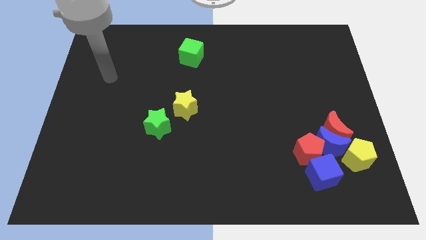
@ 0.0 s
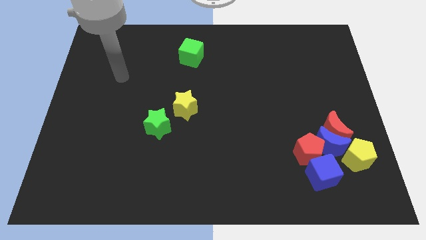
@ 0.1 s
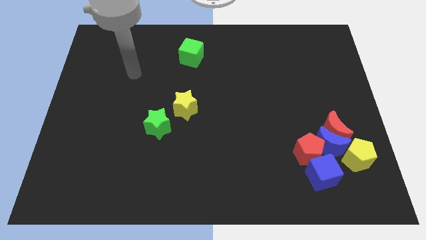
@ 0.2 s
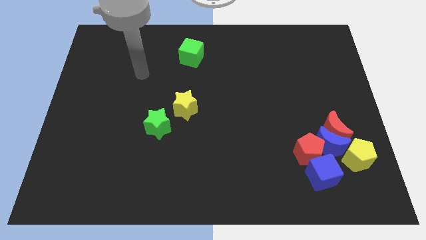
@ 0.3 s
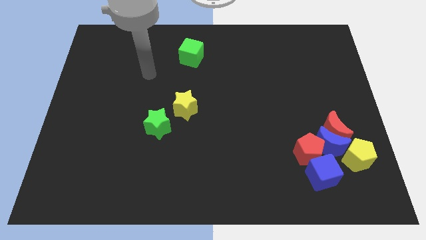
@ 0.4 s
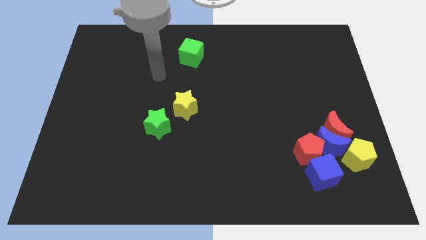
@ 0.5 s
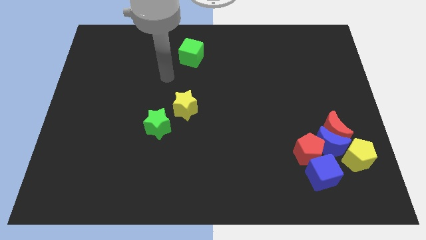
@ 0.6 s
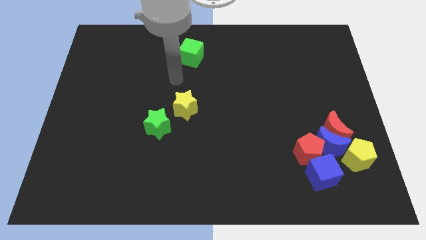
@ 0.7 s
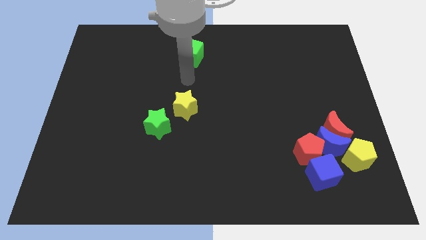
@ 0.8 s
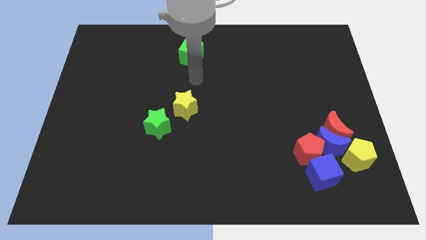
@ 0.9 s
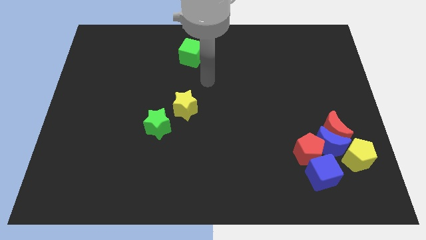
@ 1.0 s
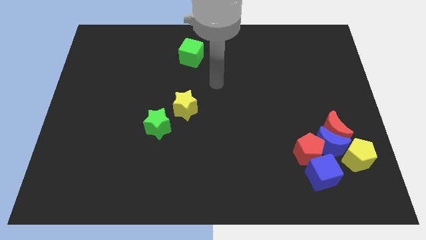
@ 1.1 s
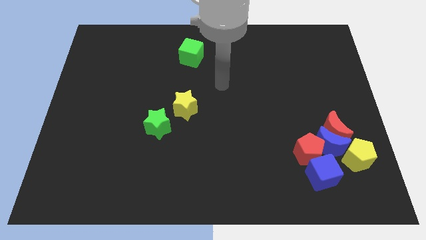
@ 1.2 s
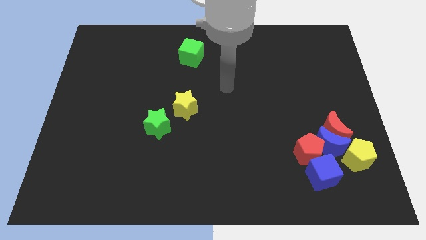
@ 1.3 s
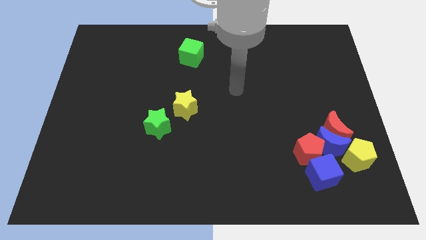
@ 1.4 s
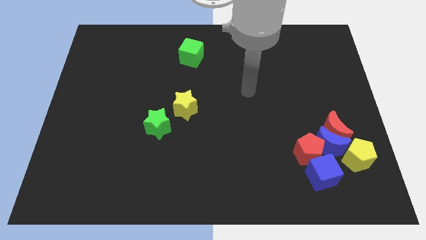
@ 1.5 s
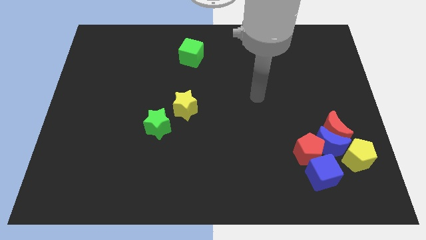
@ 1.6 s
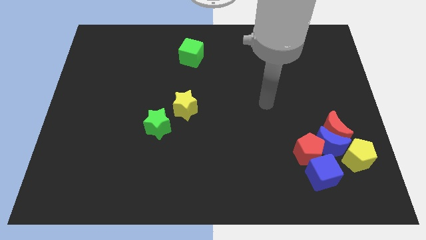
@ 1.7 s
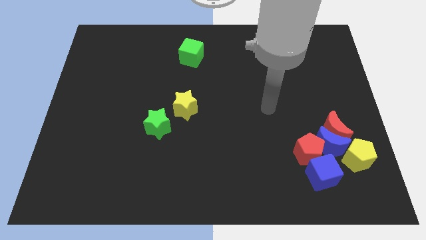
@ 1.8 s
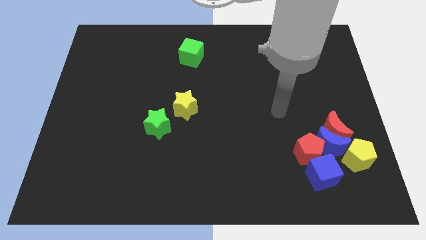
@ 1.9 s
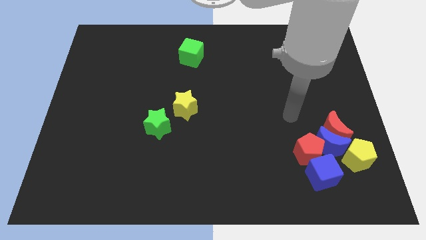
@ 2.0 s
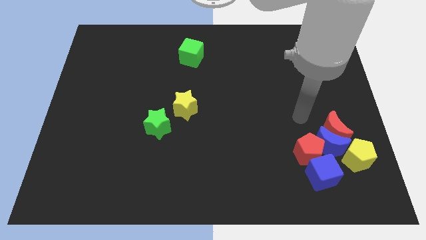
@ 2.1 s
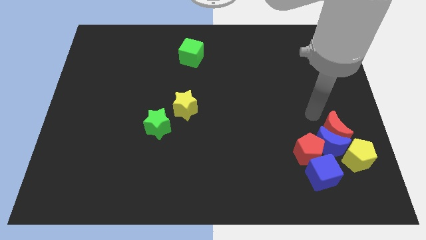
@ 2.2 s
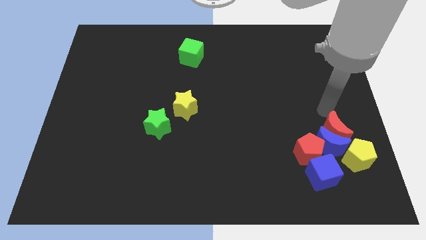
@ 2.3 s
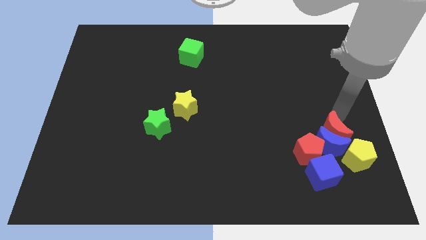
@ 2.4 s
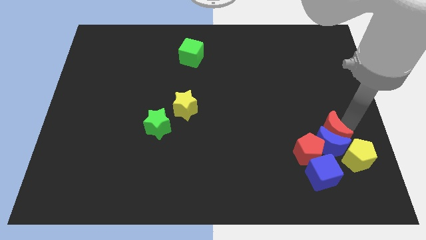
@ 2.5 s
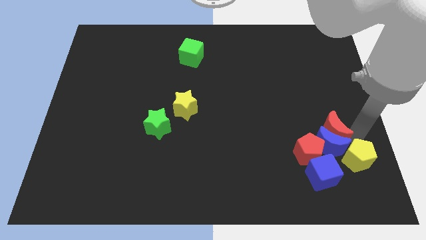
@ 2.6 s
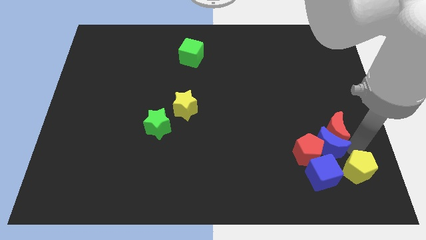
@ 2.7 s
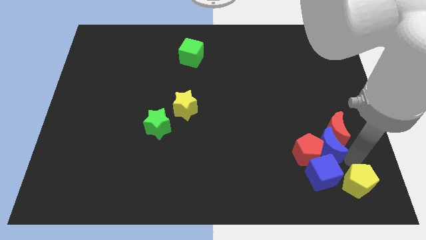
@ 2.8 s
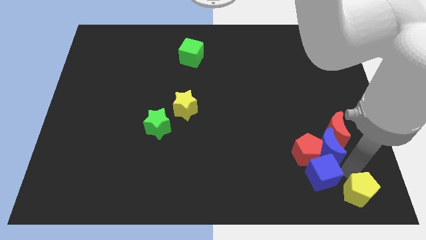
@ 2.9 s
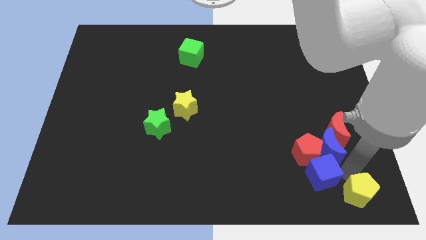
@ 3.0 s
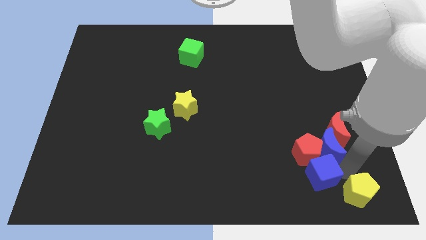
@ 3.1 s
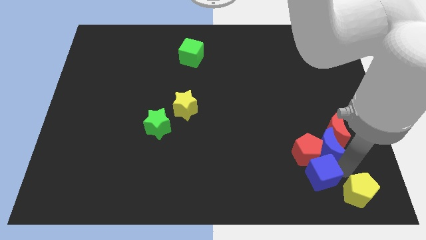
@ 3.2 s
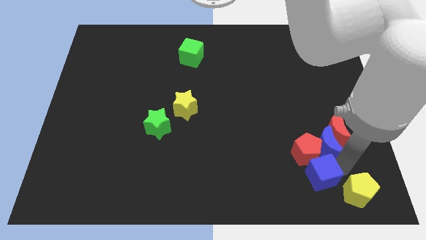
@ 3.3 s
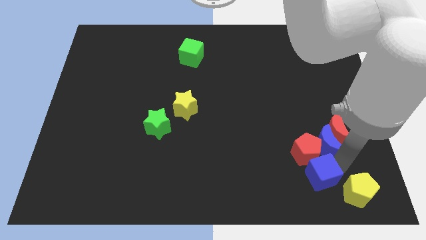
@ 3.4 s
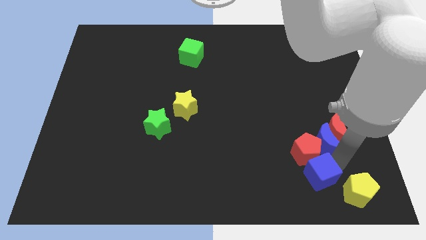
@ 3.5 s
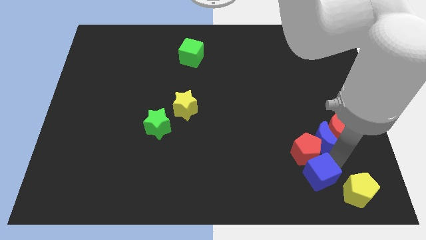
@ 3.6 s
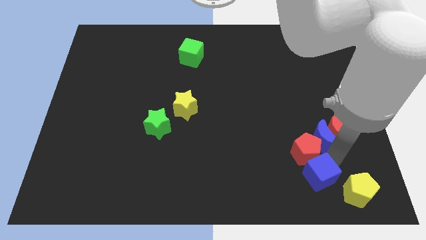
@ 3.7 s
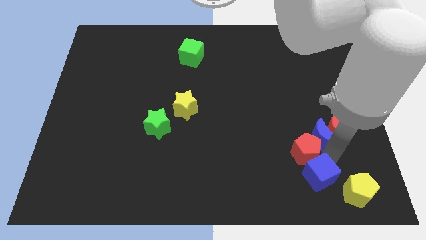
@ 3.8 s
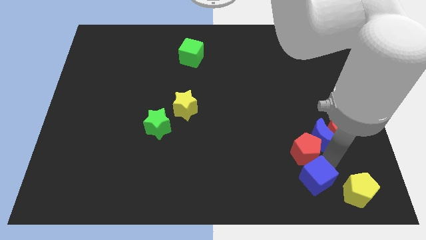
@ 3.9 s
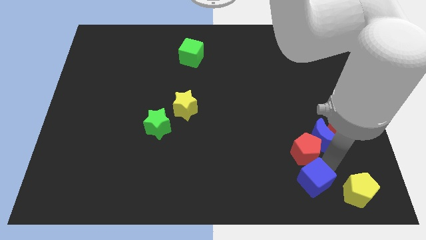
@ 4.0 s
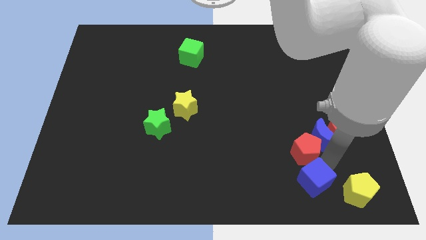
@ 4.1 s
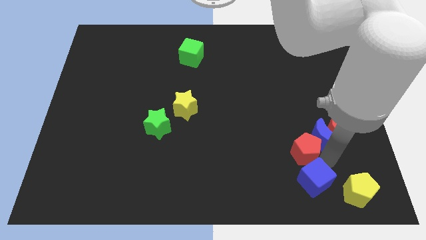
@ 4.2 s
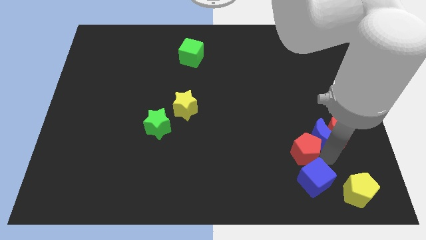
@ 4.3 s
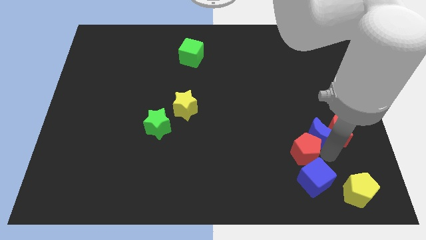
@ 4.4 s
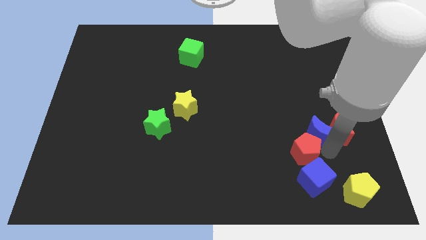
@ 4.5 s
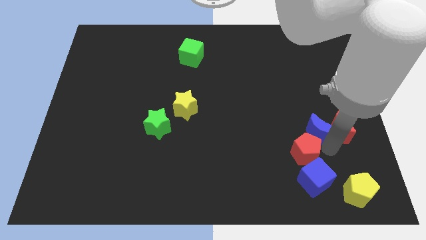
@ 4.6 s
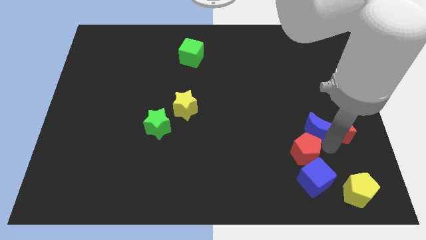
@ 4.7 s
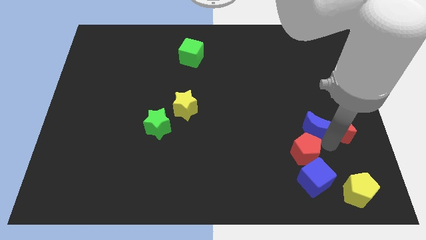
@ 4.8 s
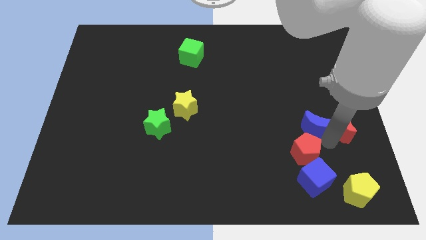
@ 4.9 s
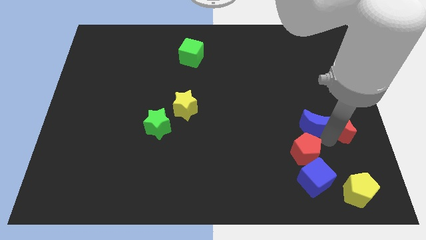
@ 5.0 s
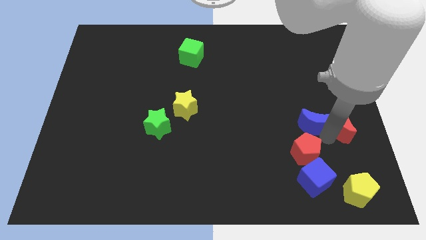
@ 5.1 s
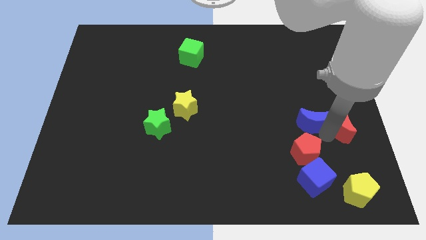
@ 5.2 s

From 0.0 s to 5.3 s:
separate the blue moon from the clump

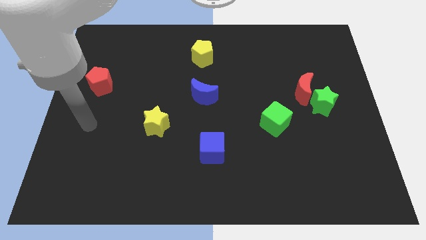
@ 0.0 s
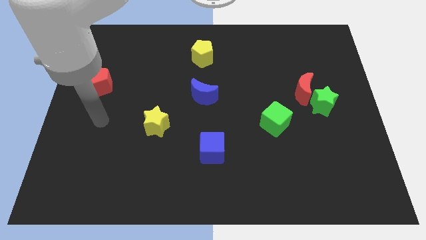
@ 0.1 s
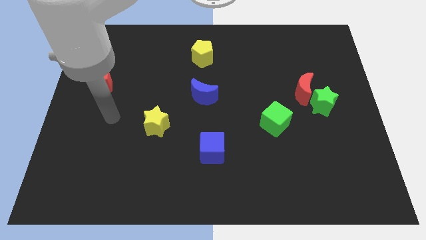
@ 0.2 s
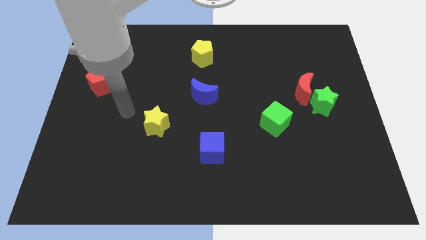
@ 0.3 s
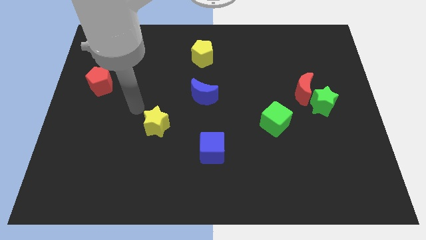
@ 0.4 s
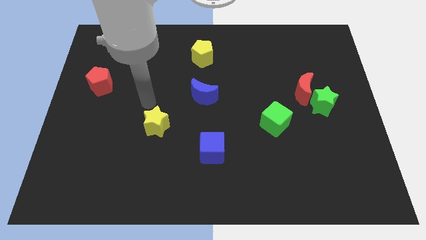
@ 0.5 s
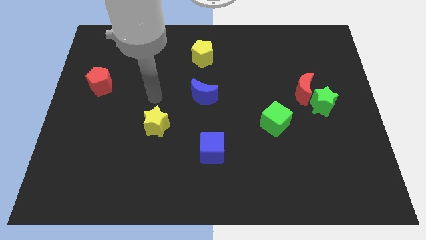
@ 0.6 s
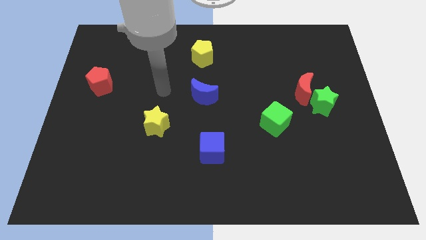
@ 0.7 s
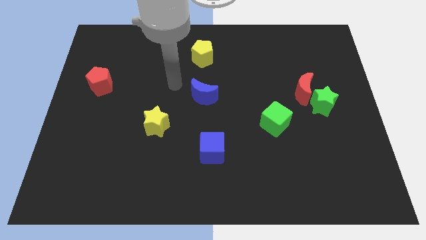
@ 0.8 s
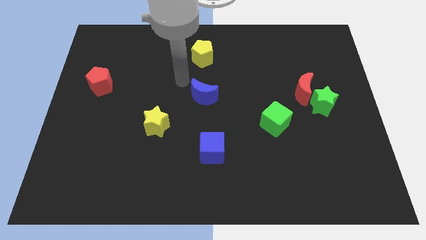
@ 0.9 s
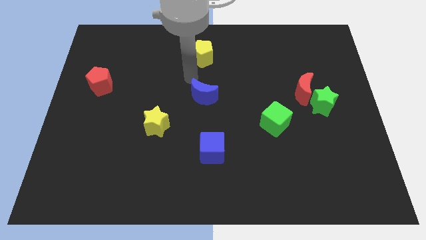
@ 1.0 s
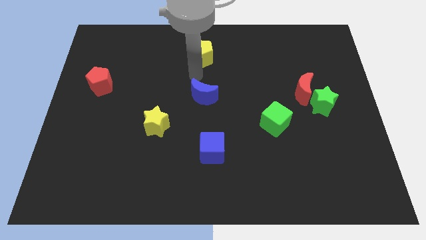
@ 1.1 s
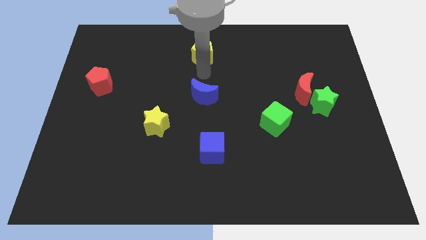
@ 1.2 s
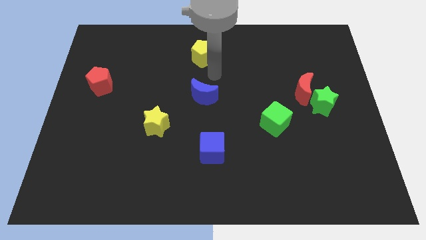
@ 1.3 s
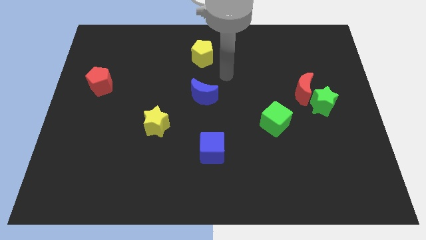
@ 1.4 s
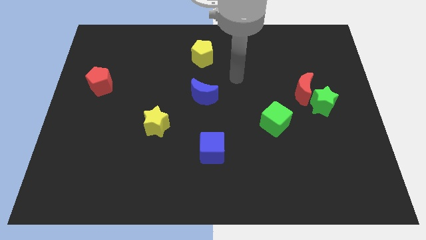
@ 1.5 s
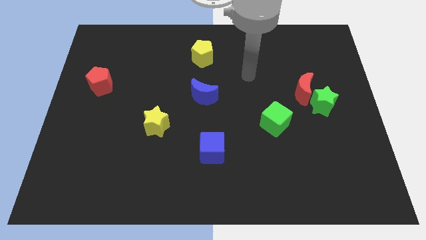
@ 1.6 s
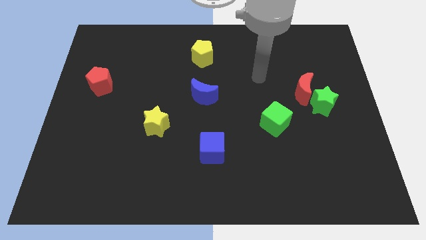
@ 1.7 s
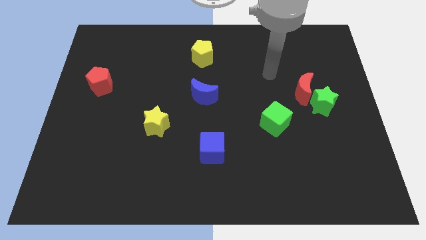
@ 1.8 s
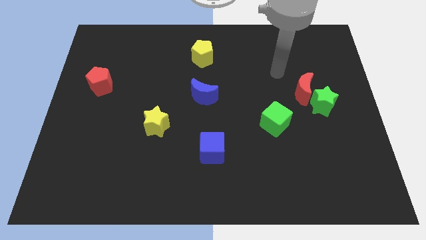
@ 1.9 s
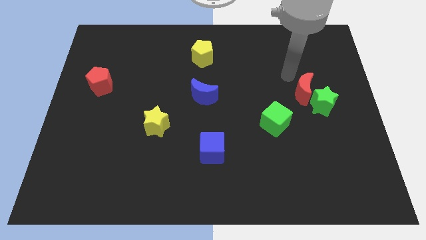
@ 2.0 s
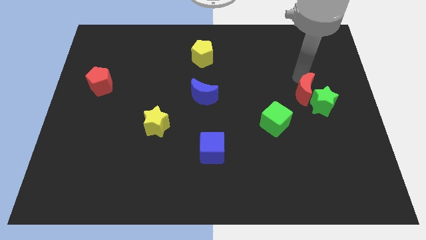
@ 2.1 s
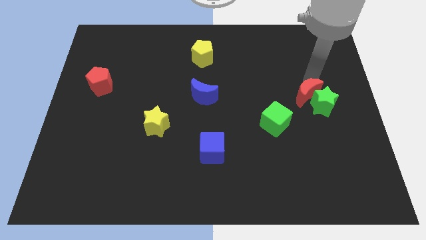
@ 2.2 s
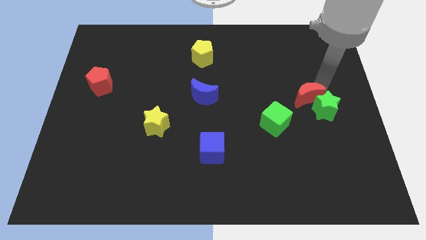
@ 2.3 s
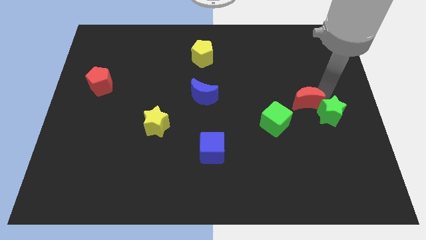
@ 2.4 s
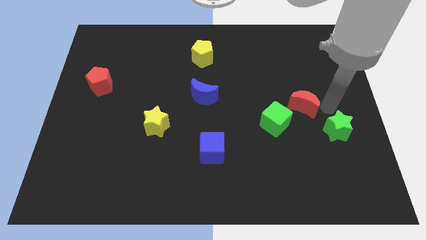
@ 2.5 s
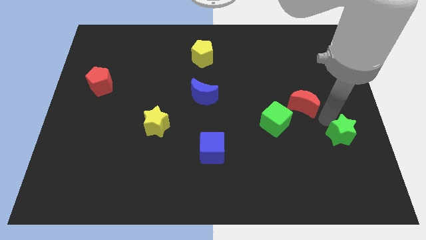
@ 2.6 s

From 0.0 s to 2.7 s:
move the red moon away from the green star

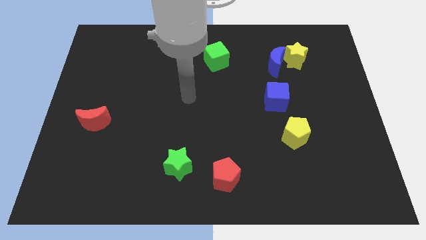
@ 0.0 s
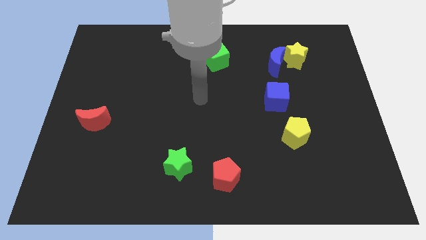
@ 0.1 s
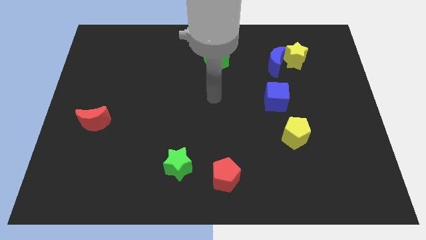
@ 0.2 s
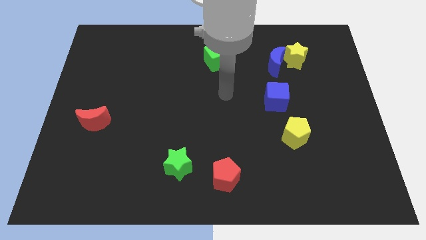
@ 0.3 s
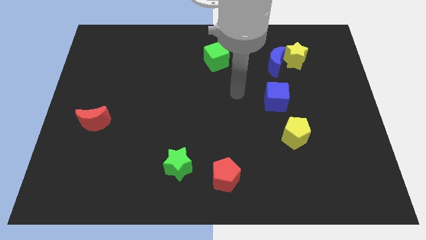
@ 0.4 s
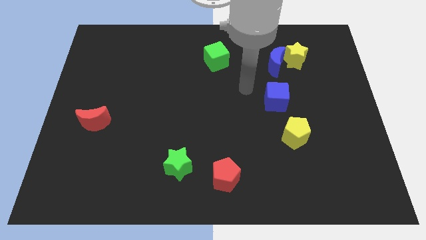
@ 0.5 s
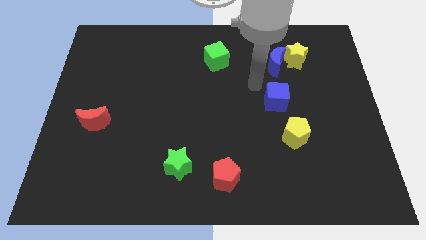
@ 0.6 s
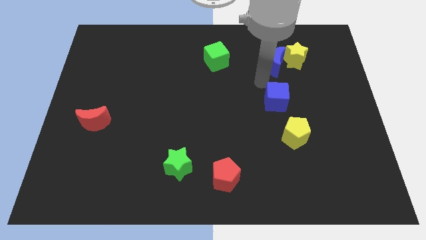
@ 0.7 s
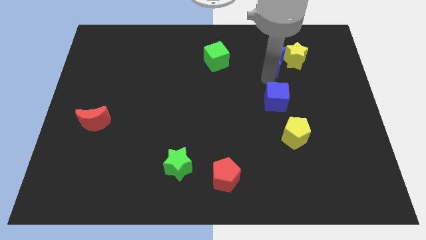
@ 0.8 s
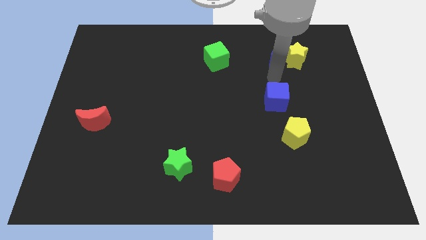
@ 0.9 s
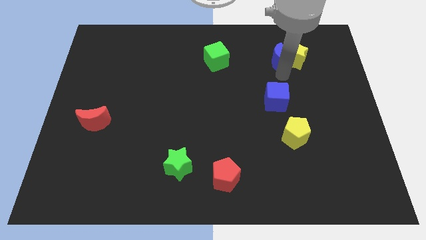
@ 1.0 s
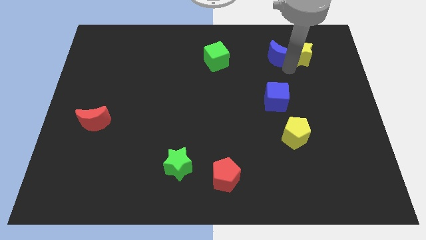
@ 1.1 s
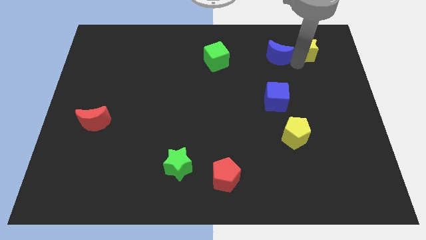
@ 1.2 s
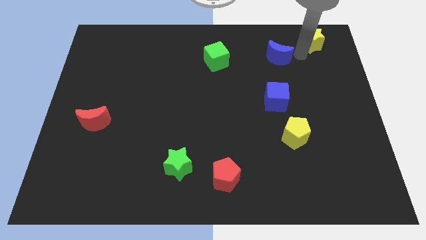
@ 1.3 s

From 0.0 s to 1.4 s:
pull the blue moon apart from the yellow star
